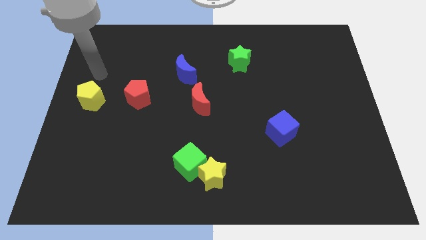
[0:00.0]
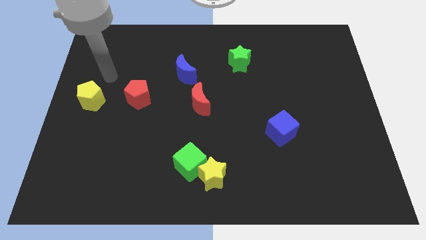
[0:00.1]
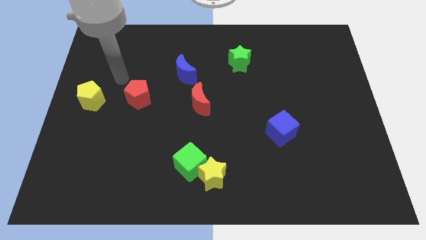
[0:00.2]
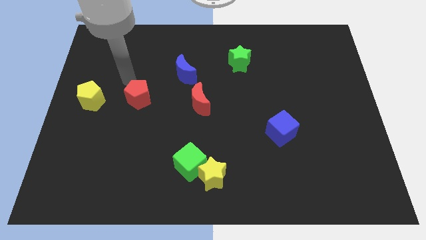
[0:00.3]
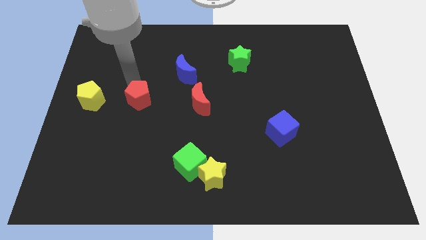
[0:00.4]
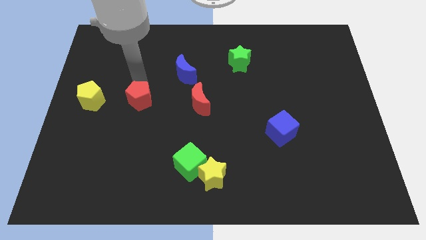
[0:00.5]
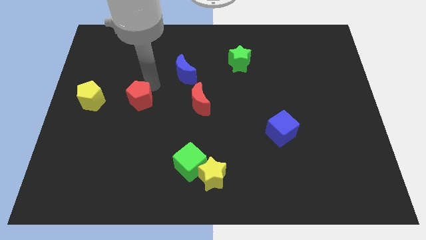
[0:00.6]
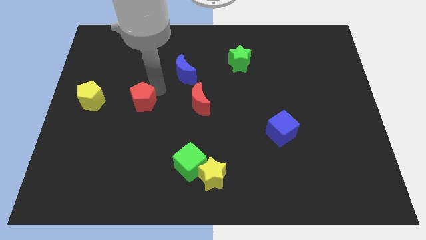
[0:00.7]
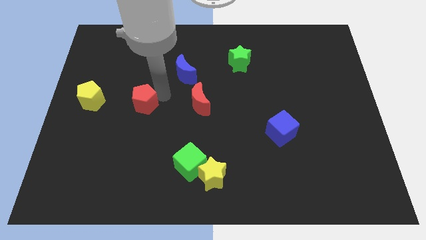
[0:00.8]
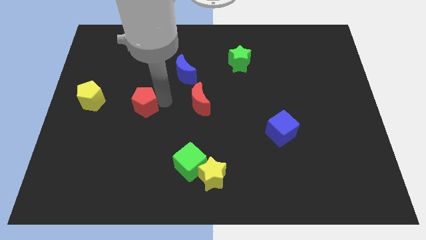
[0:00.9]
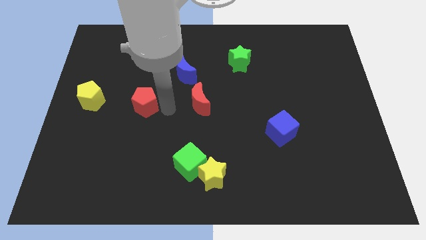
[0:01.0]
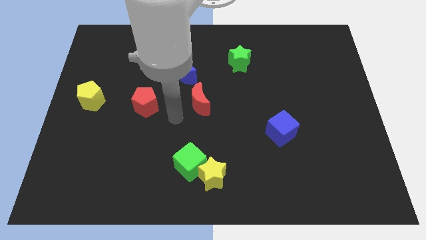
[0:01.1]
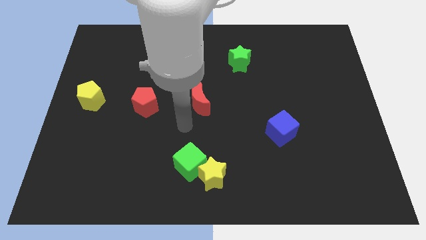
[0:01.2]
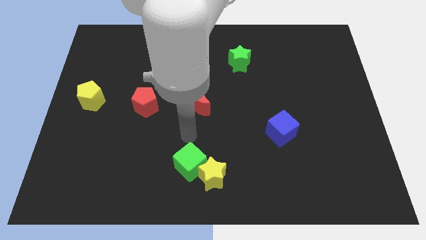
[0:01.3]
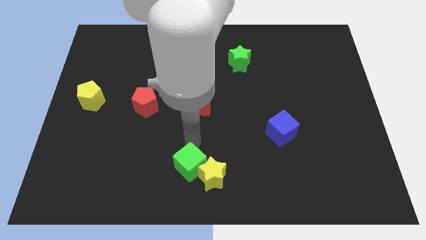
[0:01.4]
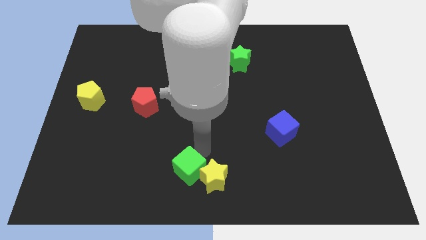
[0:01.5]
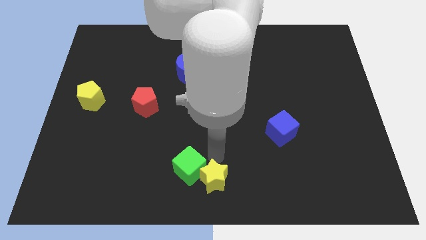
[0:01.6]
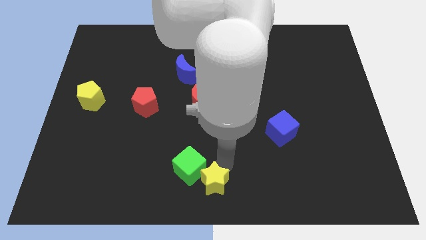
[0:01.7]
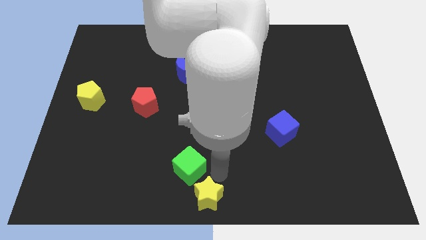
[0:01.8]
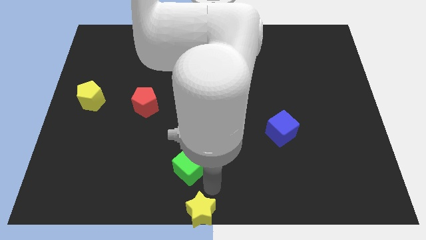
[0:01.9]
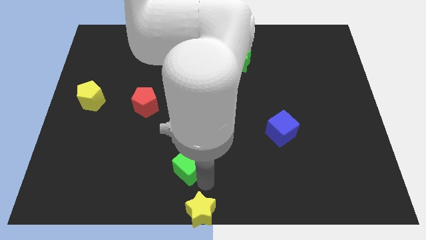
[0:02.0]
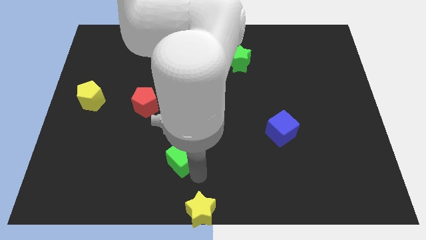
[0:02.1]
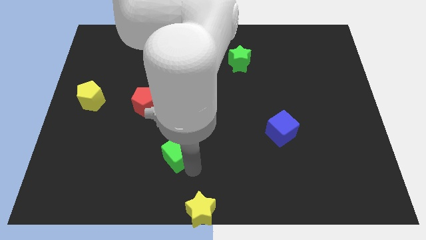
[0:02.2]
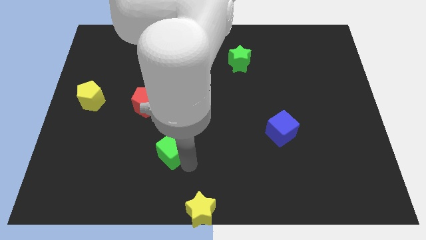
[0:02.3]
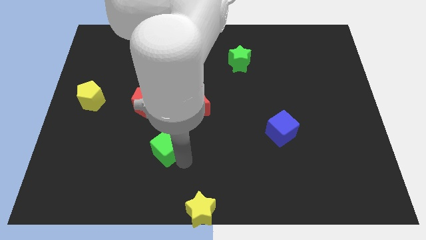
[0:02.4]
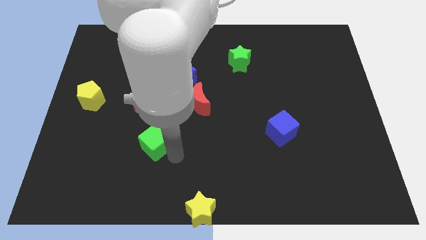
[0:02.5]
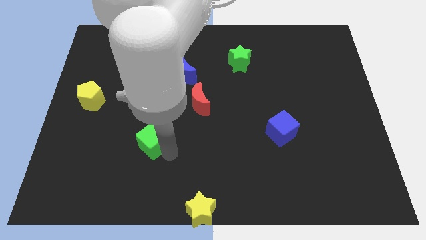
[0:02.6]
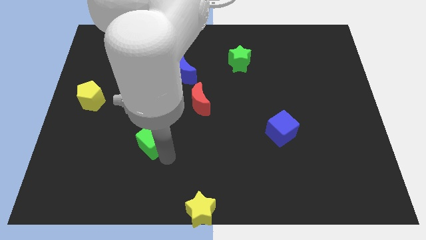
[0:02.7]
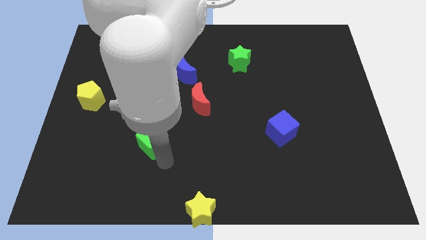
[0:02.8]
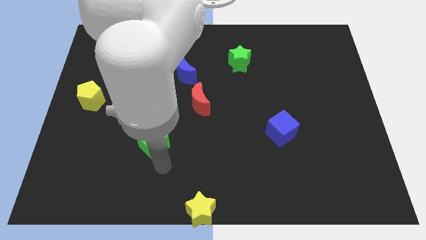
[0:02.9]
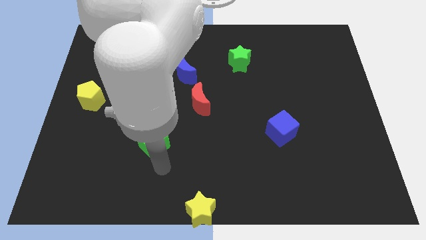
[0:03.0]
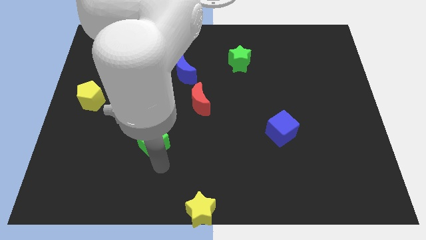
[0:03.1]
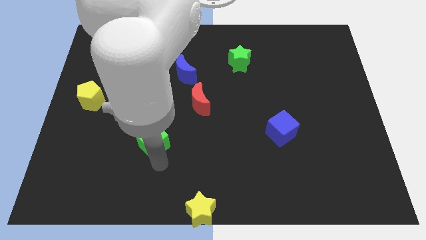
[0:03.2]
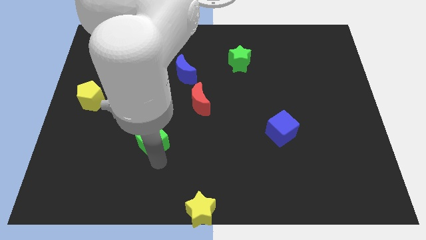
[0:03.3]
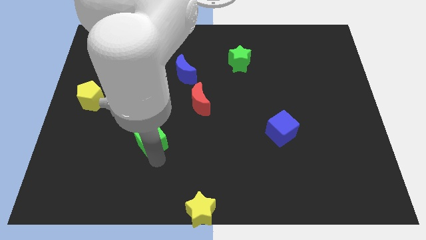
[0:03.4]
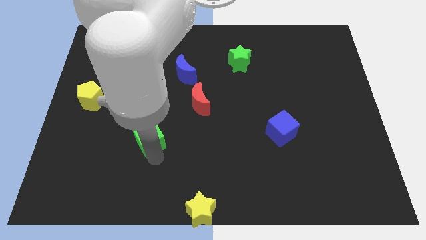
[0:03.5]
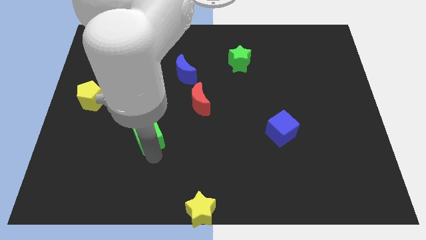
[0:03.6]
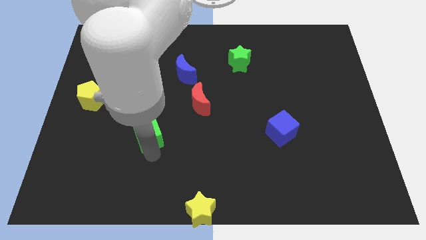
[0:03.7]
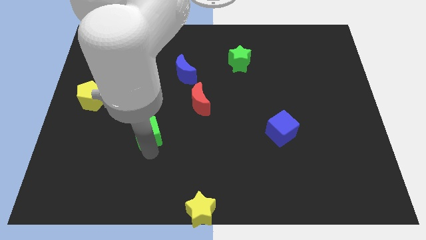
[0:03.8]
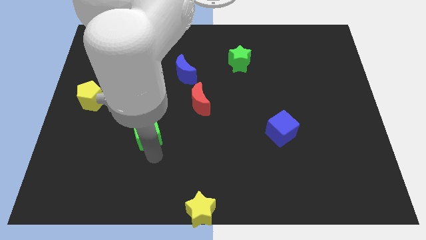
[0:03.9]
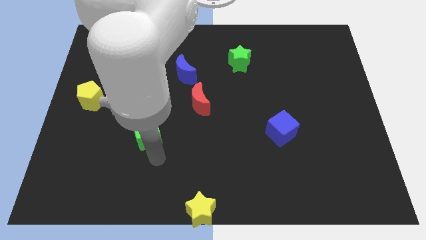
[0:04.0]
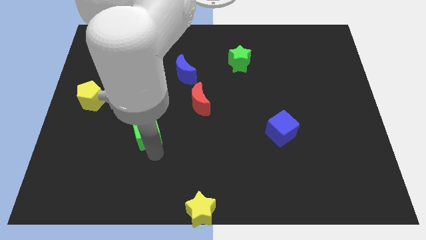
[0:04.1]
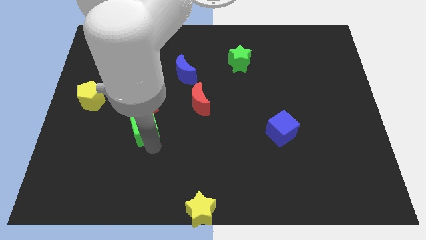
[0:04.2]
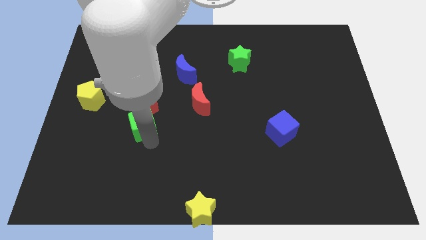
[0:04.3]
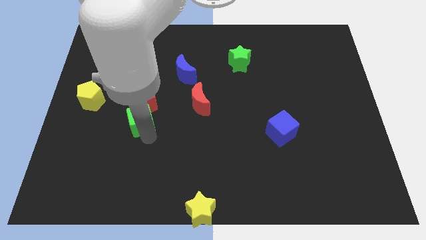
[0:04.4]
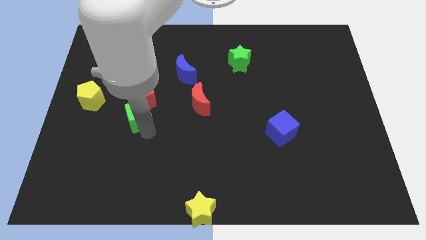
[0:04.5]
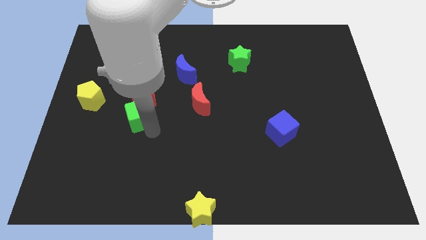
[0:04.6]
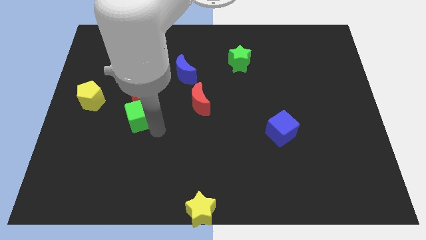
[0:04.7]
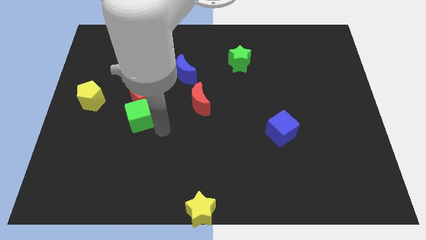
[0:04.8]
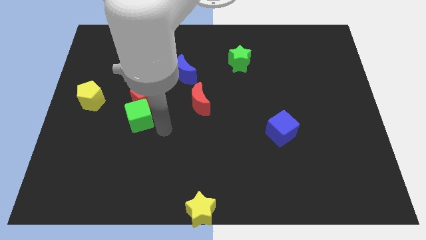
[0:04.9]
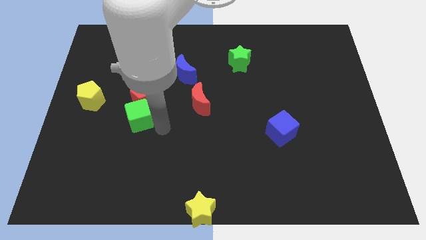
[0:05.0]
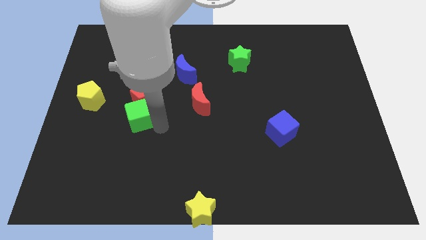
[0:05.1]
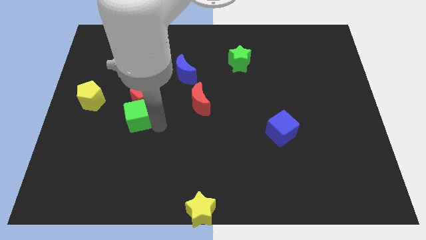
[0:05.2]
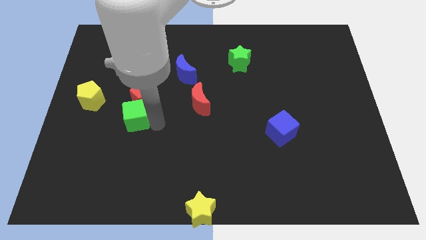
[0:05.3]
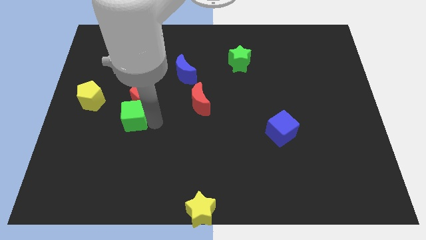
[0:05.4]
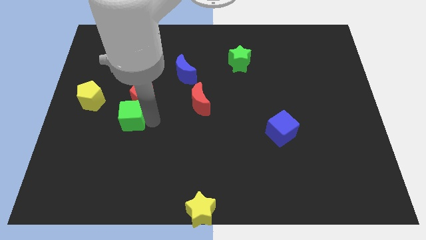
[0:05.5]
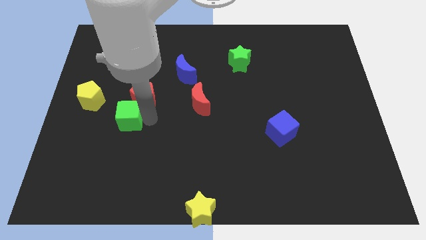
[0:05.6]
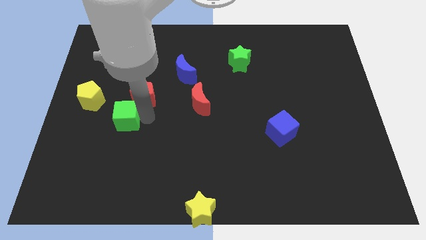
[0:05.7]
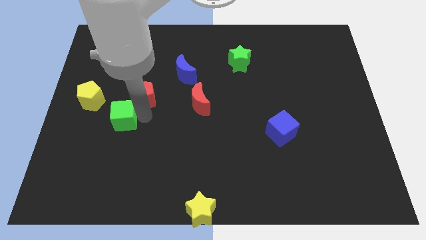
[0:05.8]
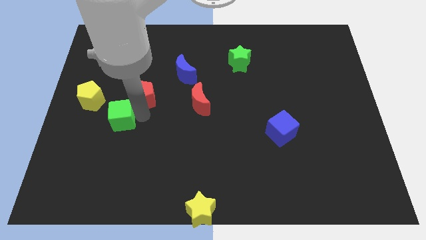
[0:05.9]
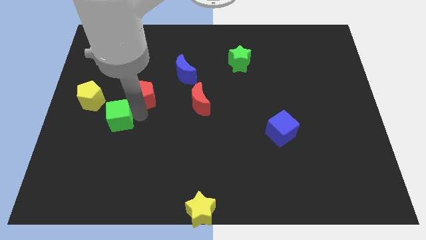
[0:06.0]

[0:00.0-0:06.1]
move the green cube upwards and to the left diagonally

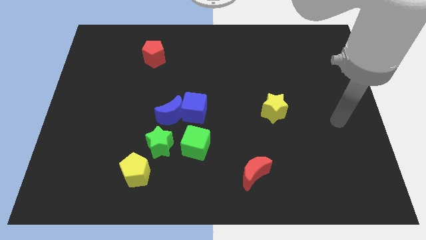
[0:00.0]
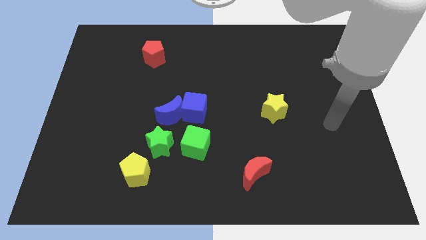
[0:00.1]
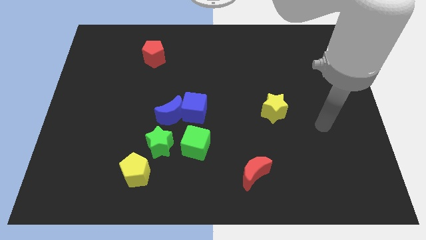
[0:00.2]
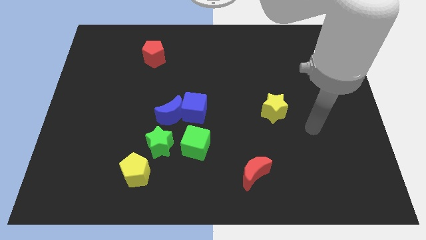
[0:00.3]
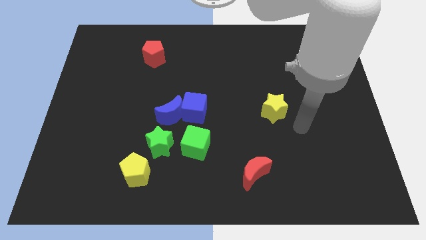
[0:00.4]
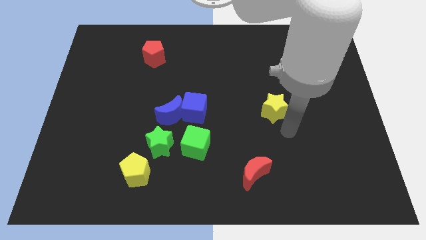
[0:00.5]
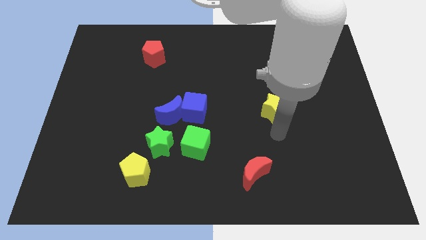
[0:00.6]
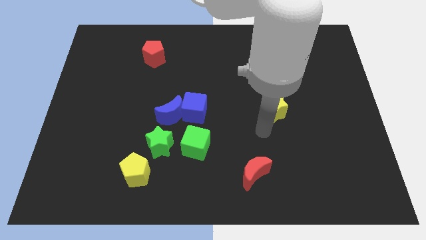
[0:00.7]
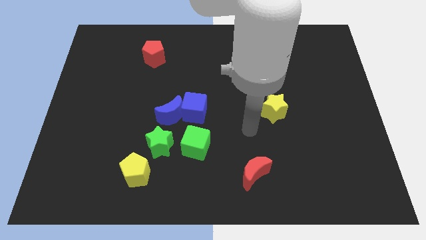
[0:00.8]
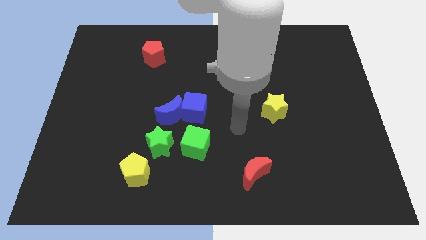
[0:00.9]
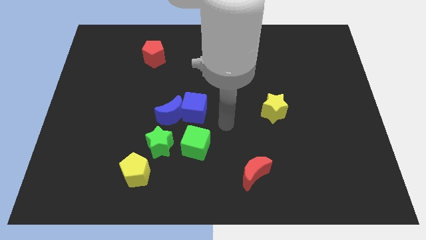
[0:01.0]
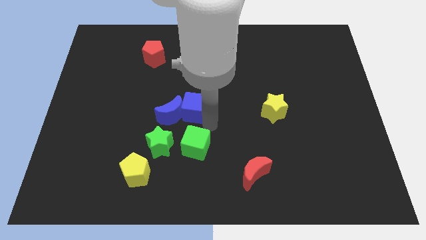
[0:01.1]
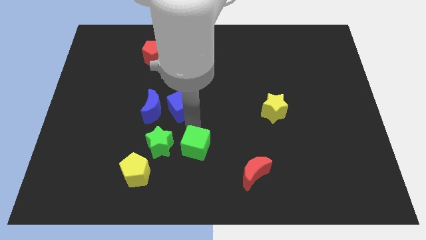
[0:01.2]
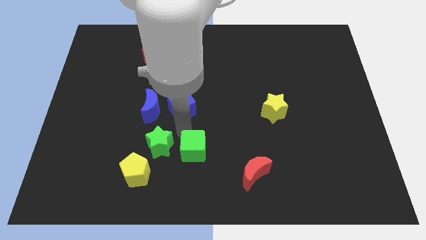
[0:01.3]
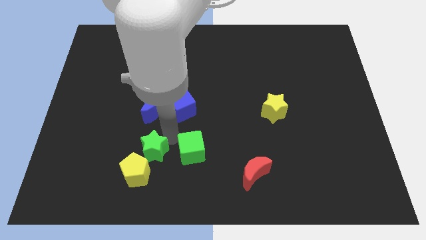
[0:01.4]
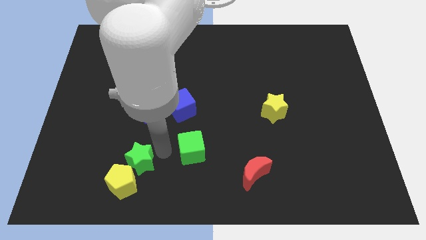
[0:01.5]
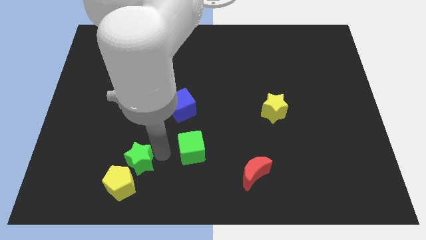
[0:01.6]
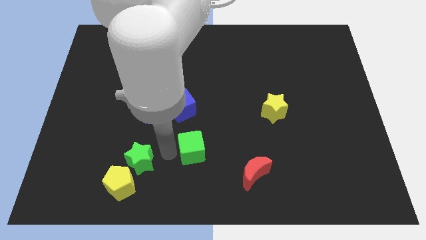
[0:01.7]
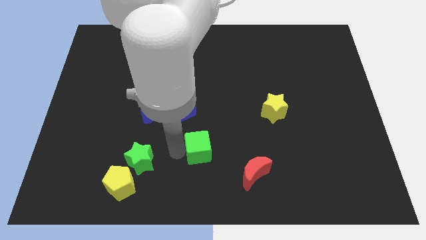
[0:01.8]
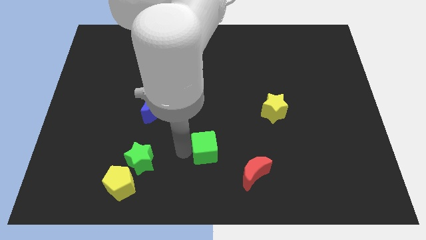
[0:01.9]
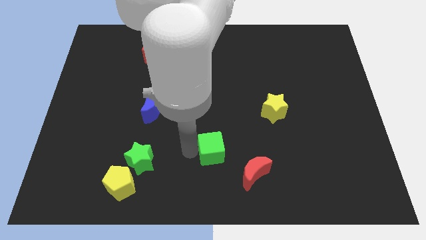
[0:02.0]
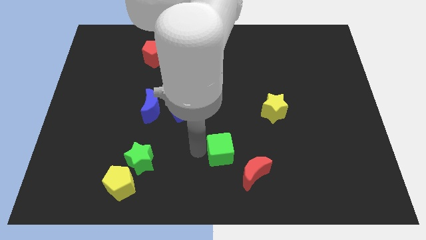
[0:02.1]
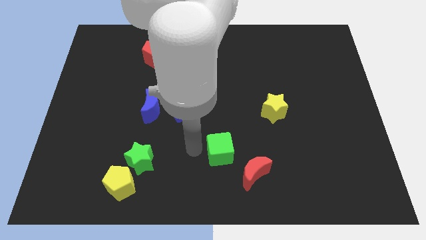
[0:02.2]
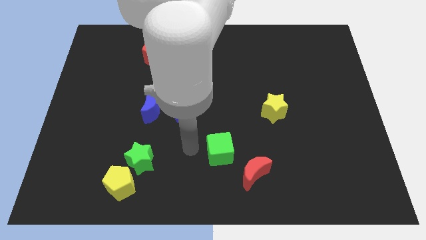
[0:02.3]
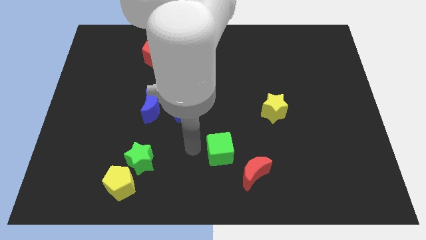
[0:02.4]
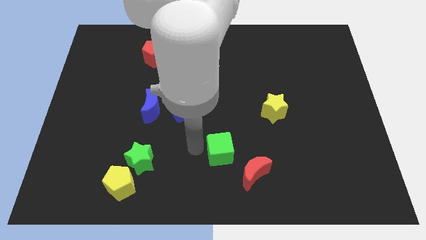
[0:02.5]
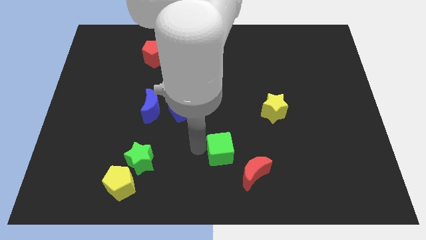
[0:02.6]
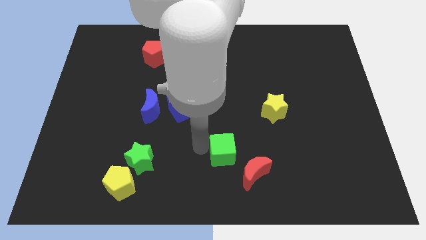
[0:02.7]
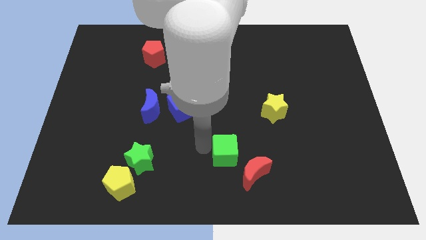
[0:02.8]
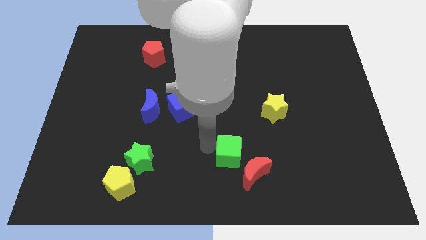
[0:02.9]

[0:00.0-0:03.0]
slightly move the green cube to the right
